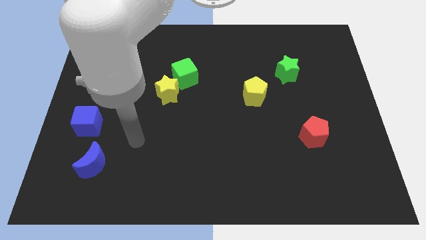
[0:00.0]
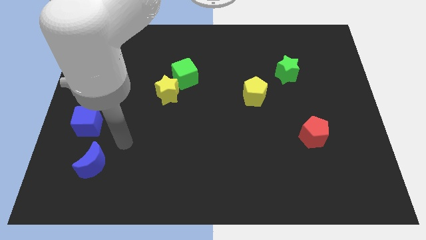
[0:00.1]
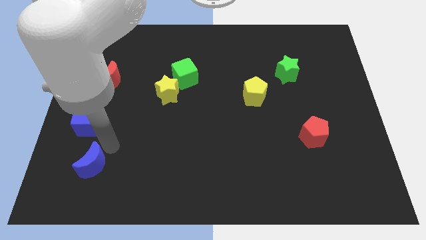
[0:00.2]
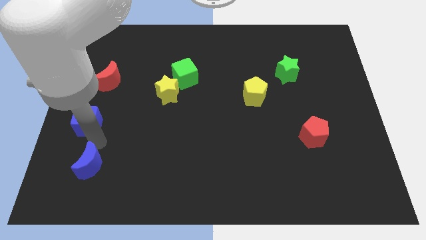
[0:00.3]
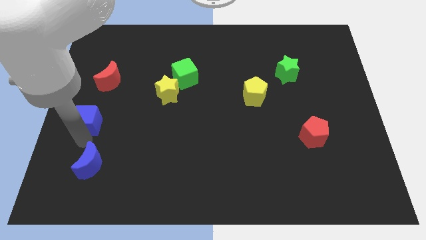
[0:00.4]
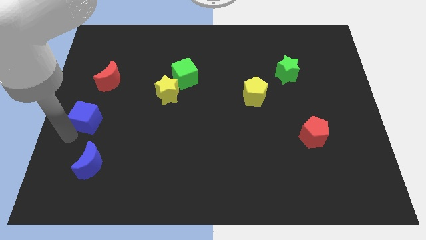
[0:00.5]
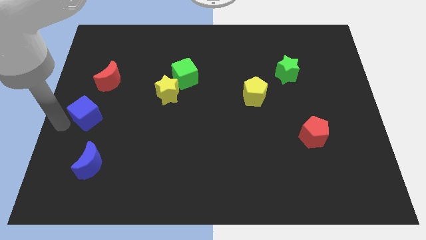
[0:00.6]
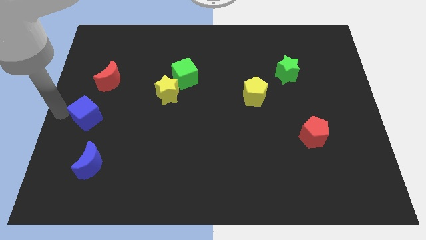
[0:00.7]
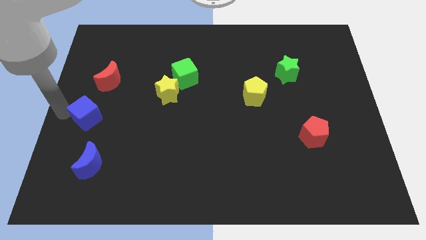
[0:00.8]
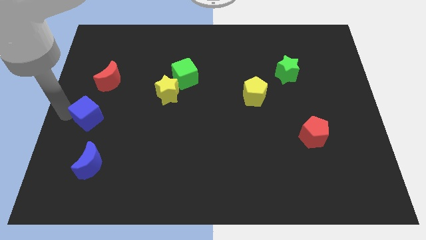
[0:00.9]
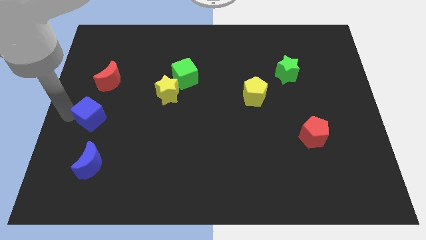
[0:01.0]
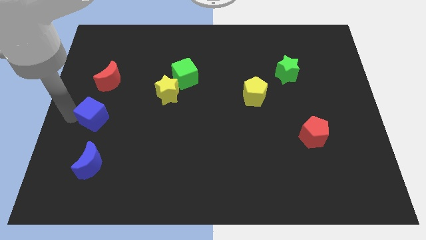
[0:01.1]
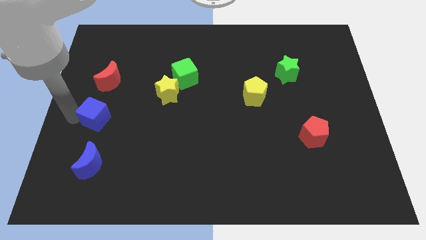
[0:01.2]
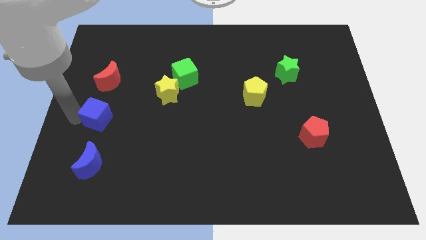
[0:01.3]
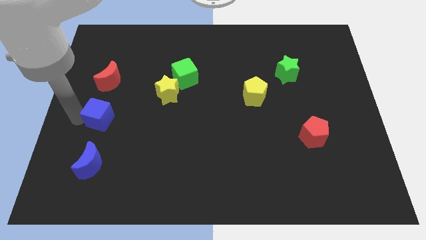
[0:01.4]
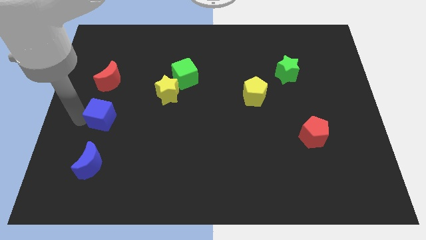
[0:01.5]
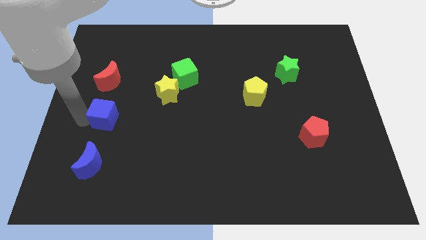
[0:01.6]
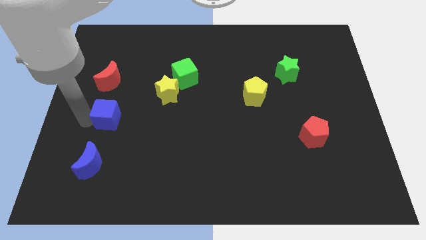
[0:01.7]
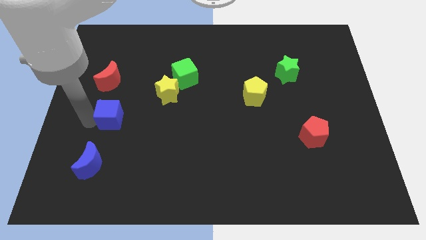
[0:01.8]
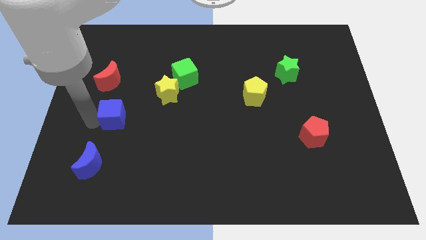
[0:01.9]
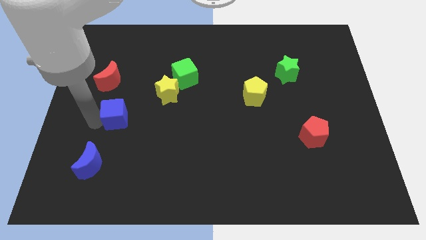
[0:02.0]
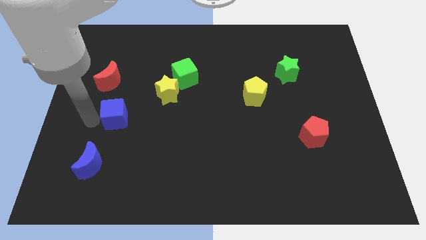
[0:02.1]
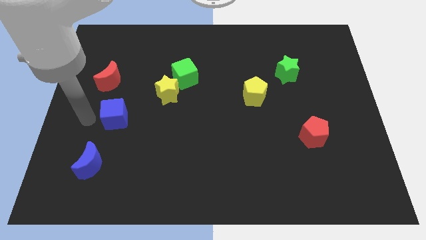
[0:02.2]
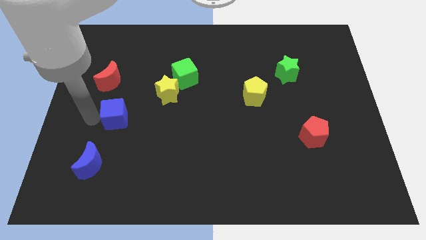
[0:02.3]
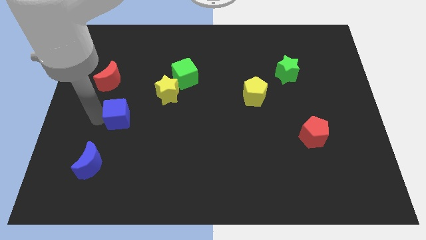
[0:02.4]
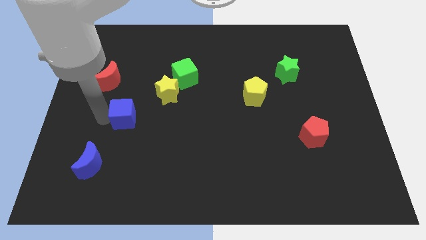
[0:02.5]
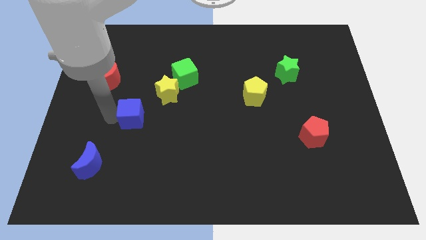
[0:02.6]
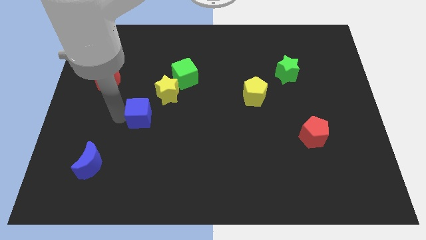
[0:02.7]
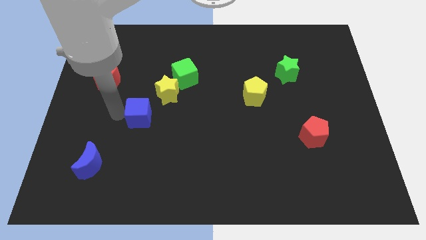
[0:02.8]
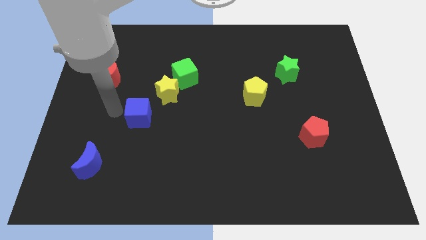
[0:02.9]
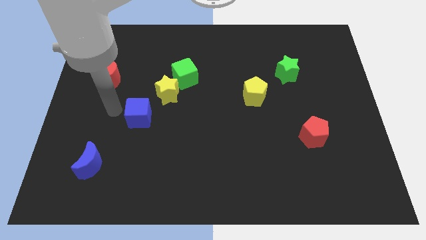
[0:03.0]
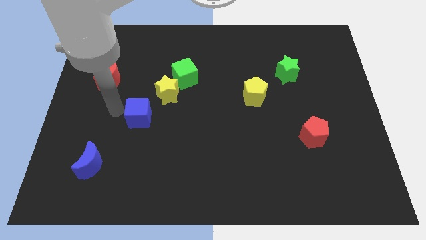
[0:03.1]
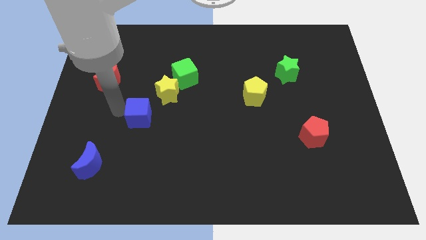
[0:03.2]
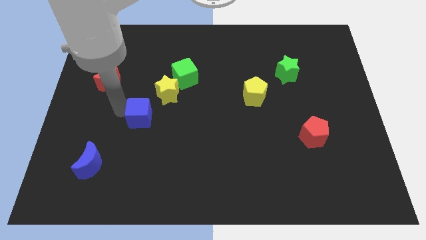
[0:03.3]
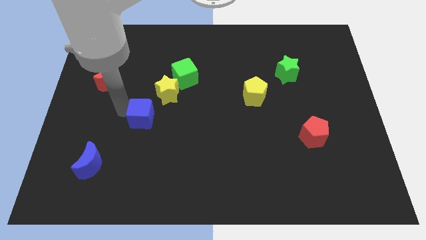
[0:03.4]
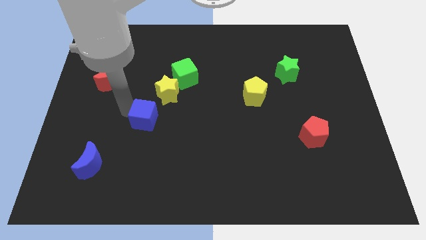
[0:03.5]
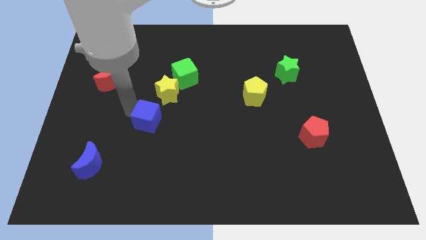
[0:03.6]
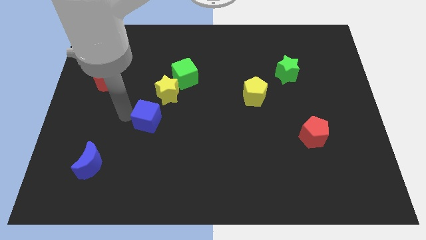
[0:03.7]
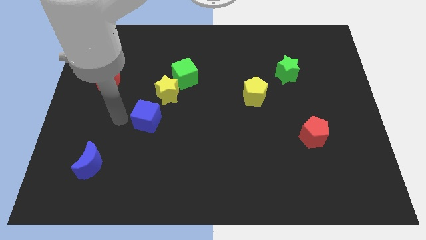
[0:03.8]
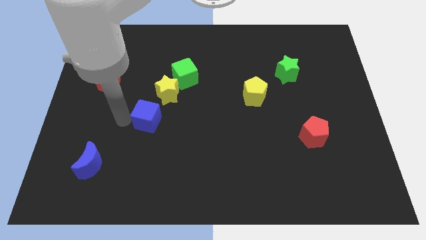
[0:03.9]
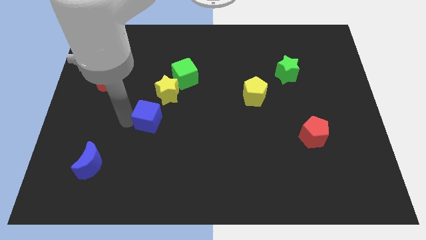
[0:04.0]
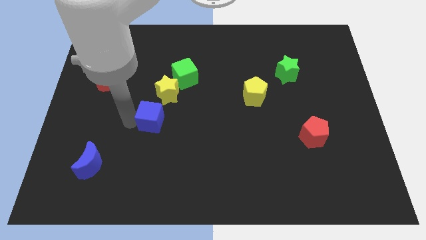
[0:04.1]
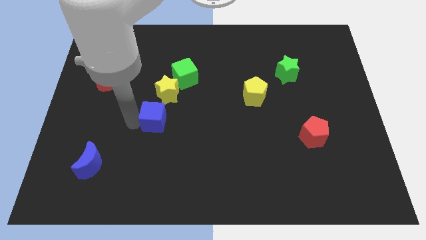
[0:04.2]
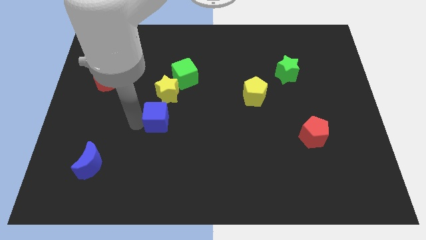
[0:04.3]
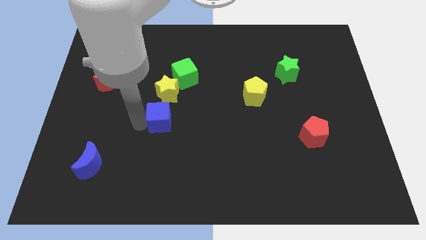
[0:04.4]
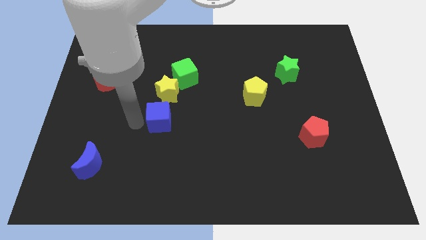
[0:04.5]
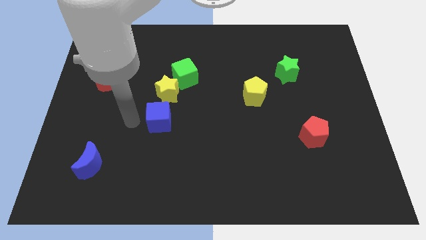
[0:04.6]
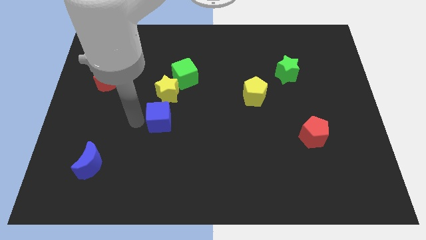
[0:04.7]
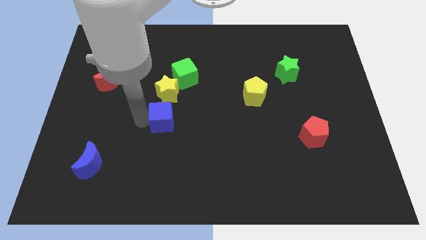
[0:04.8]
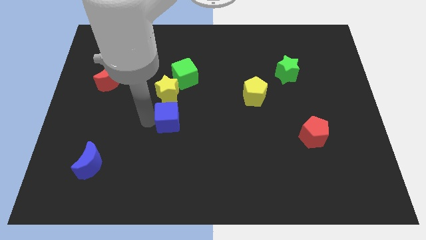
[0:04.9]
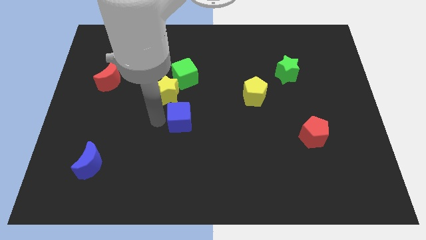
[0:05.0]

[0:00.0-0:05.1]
push the blue cube to the right

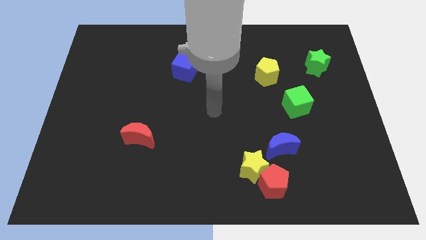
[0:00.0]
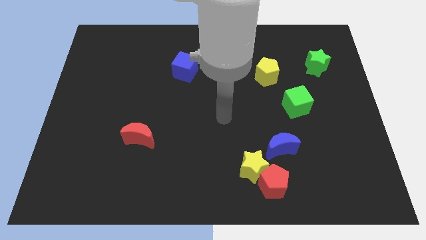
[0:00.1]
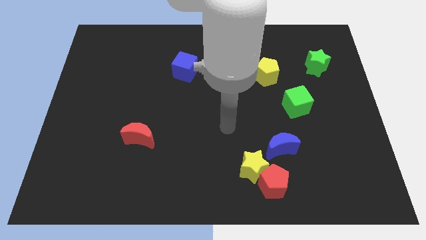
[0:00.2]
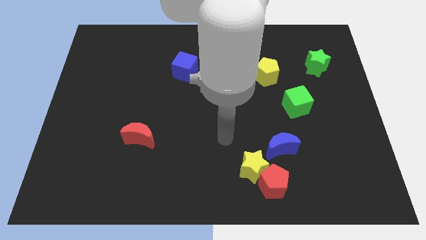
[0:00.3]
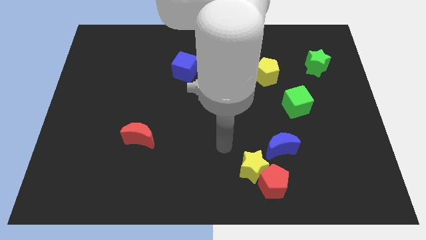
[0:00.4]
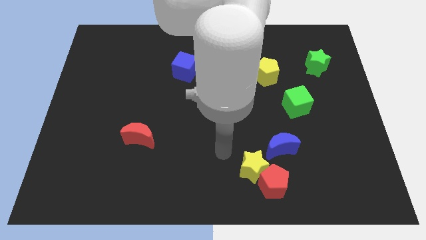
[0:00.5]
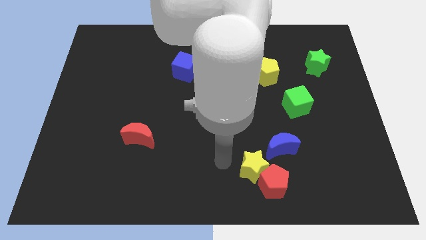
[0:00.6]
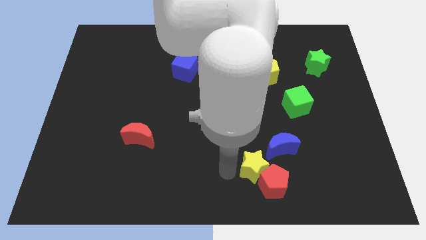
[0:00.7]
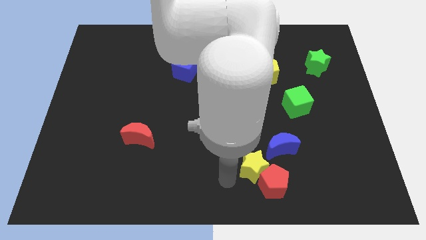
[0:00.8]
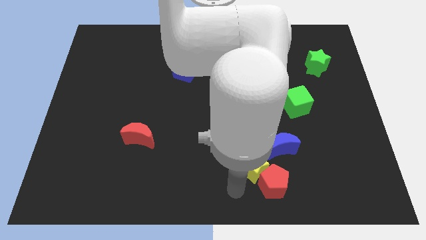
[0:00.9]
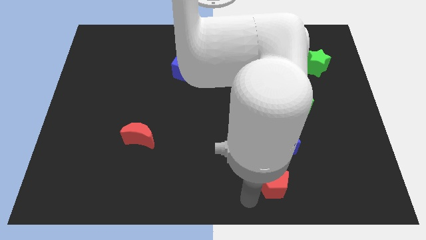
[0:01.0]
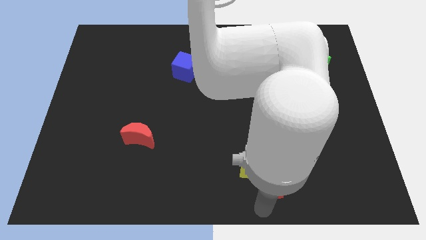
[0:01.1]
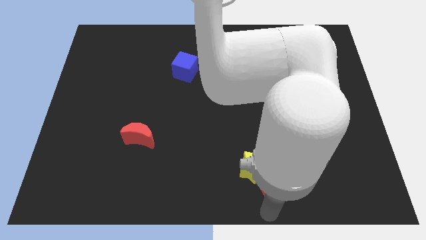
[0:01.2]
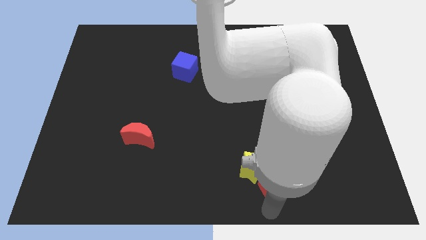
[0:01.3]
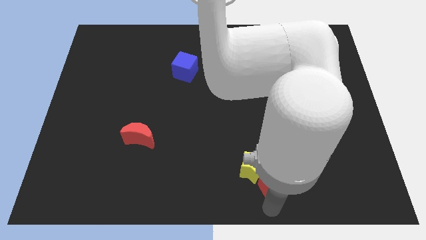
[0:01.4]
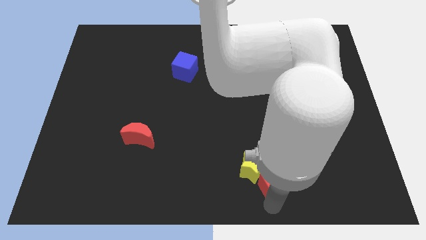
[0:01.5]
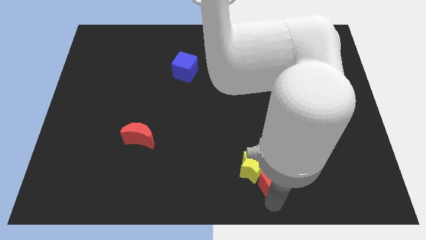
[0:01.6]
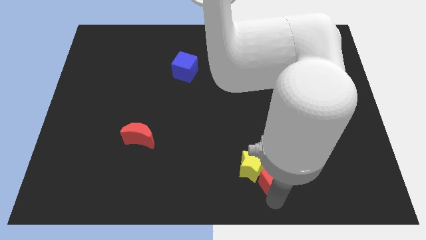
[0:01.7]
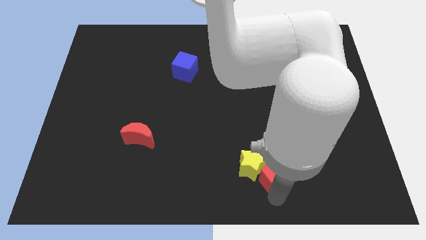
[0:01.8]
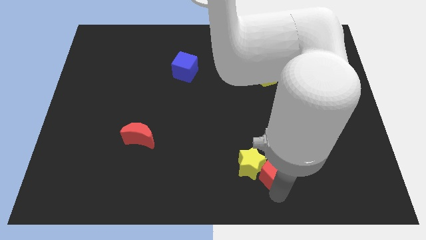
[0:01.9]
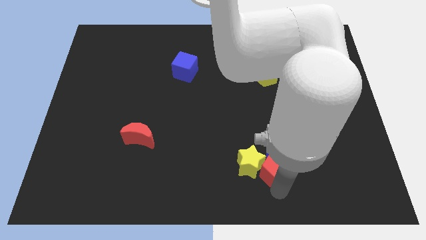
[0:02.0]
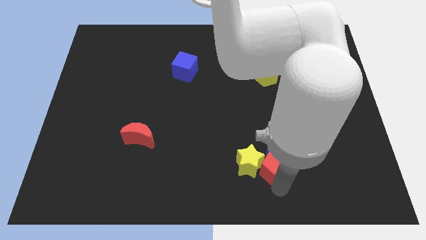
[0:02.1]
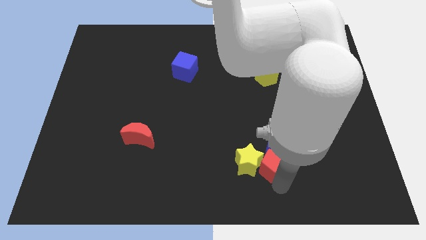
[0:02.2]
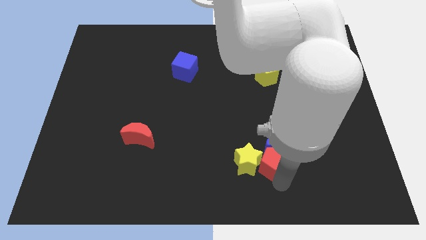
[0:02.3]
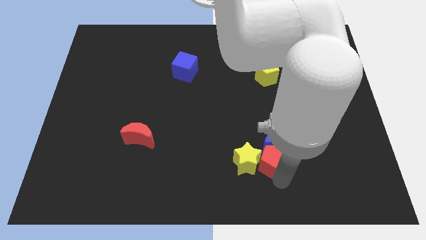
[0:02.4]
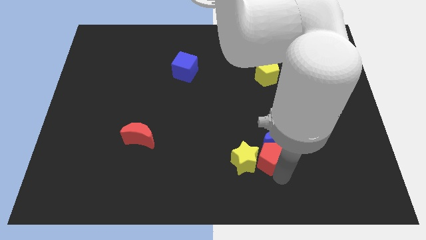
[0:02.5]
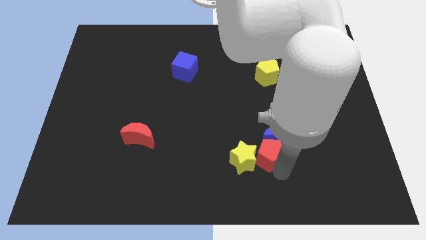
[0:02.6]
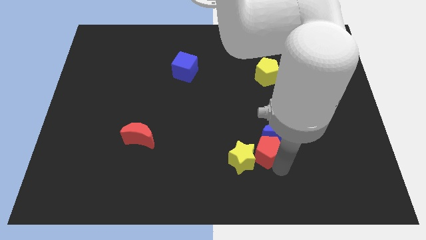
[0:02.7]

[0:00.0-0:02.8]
push the red pentagon somewhat upwards
